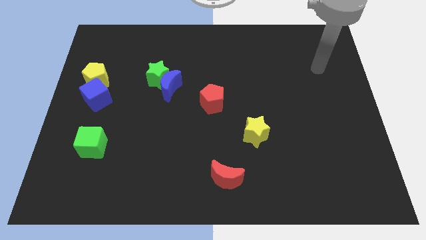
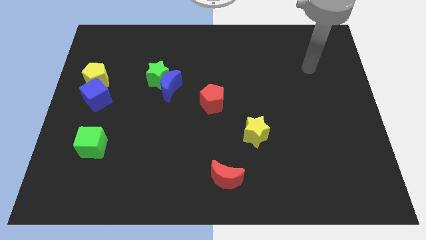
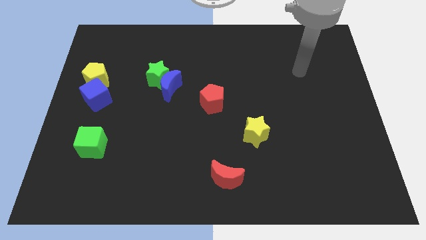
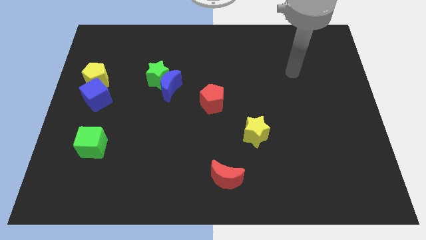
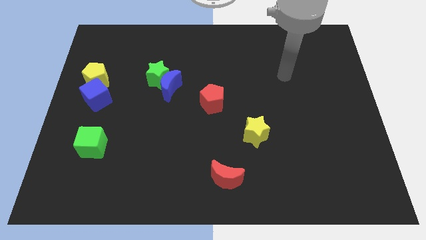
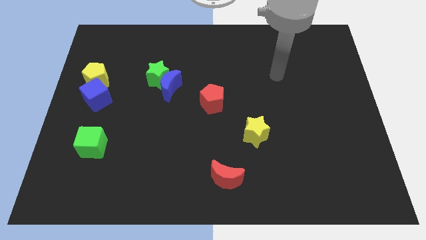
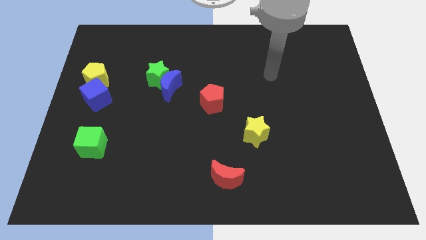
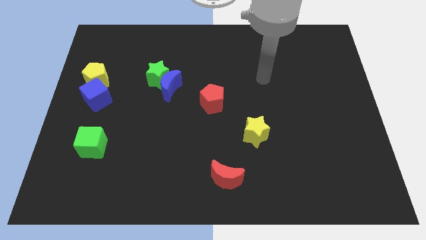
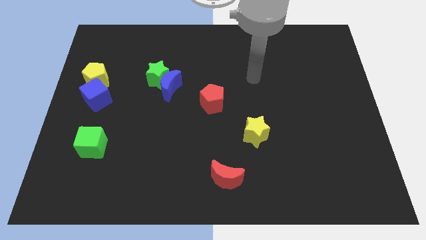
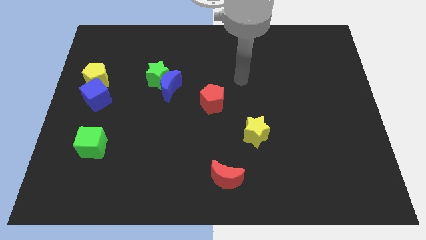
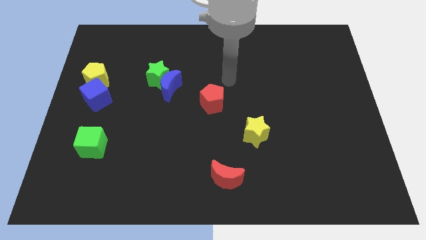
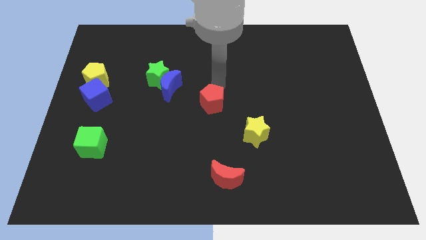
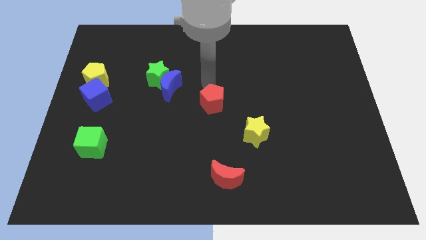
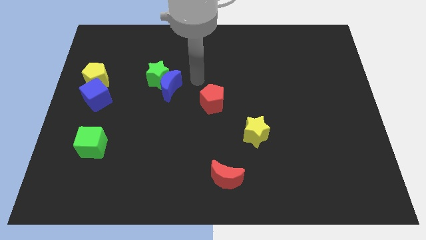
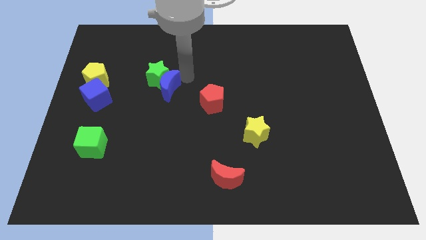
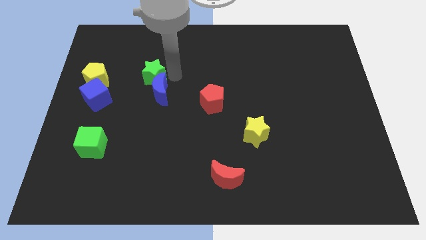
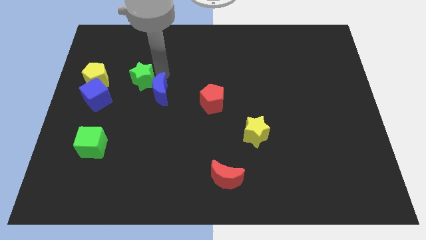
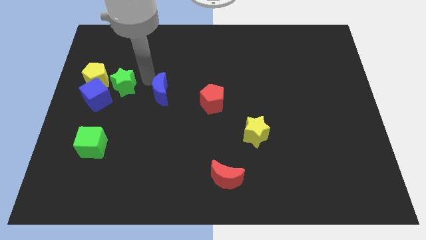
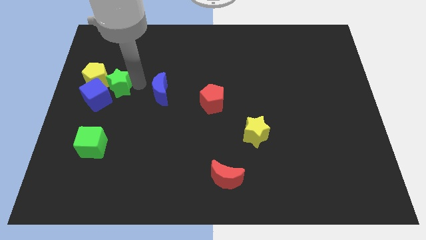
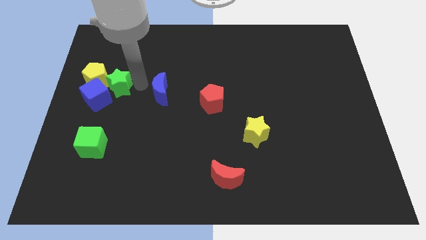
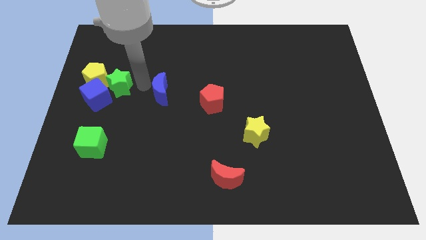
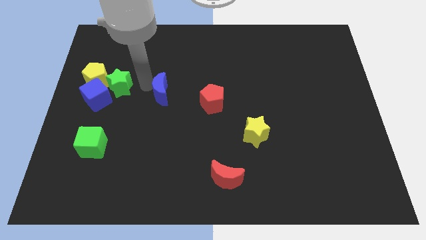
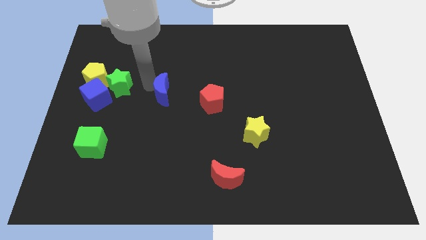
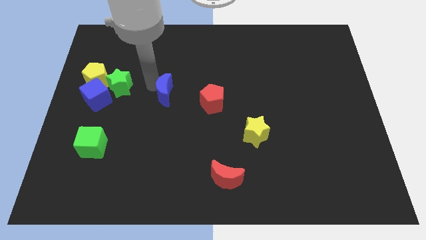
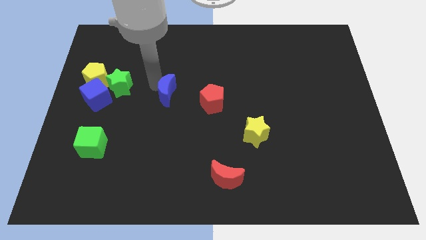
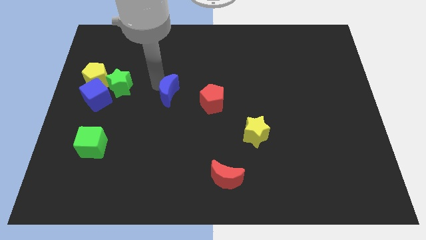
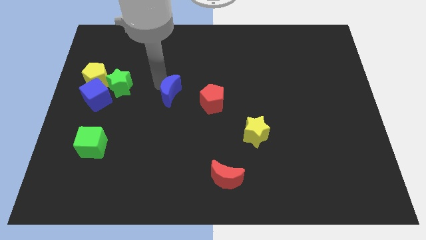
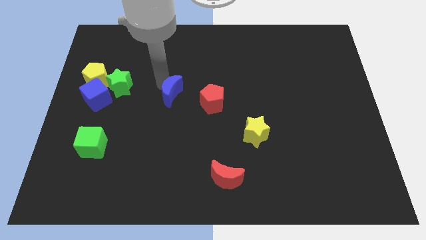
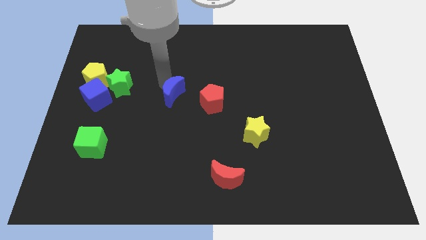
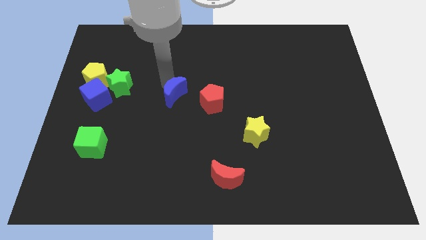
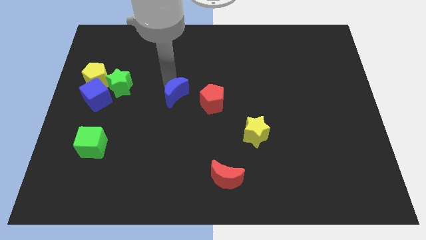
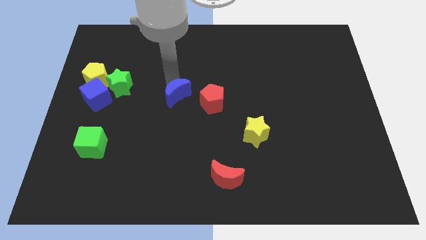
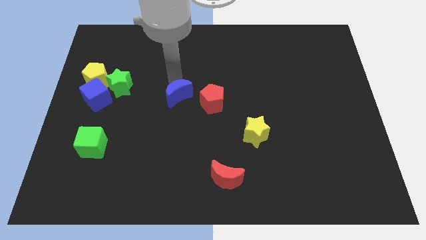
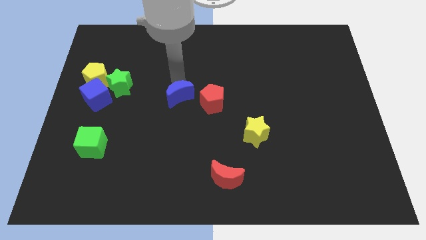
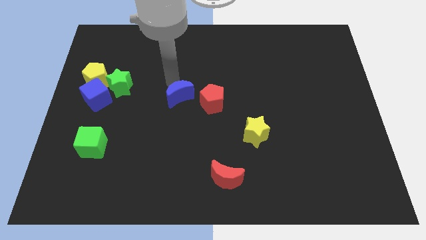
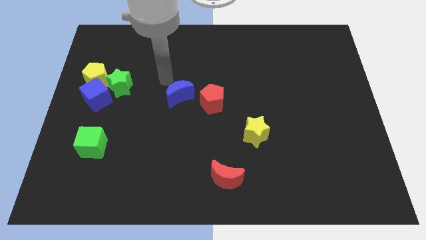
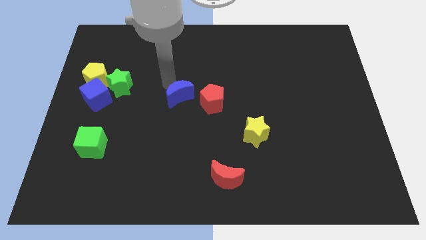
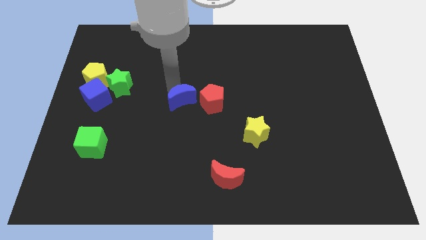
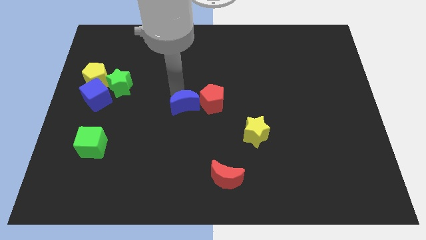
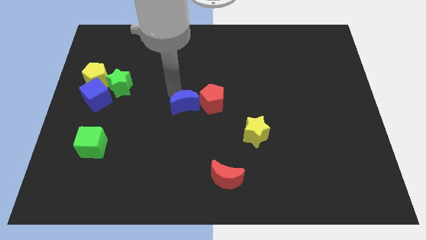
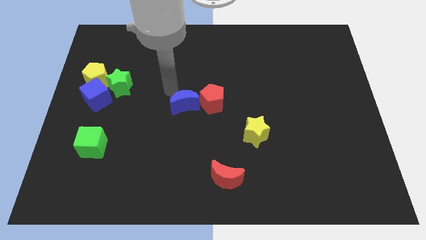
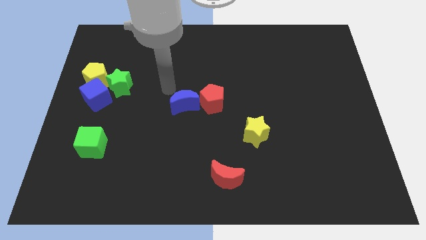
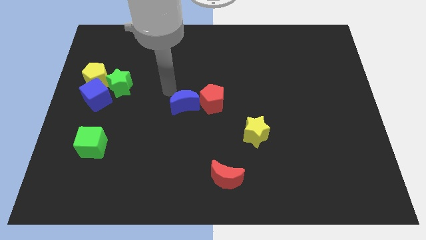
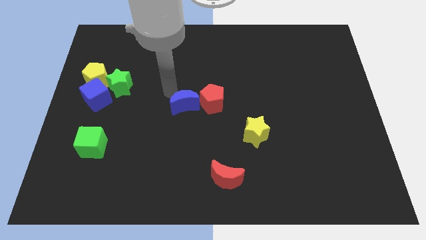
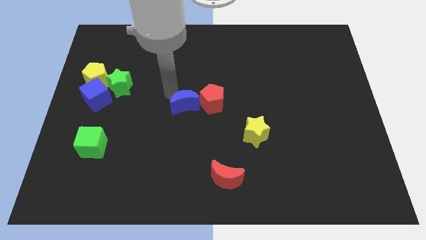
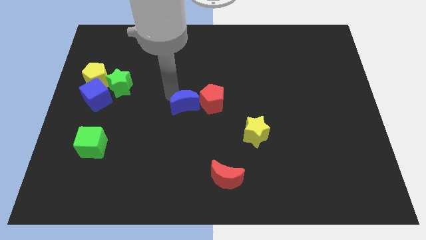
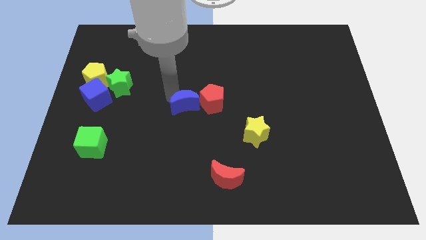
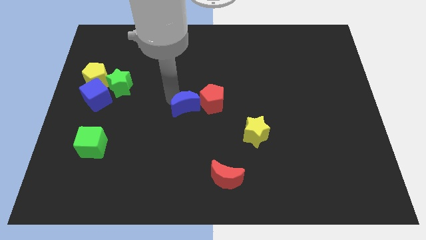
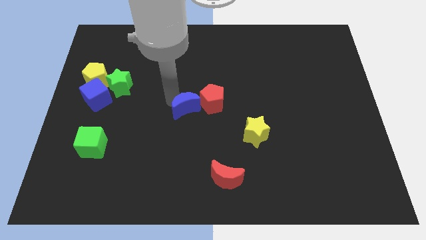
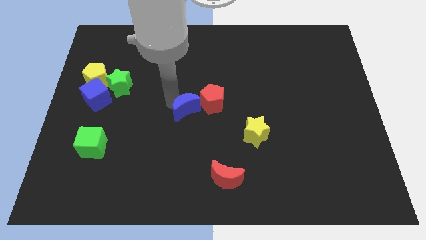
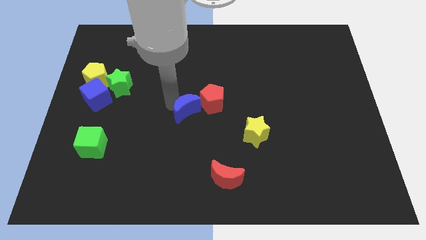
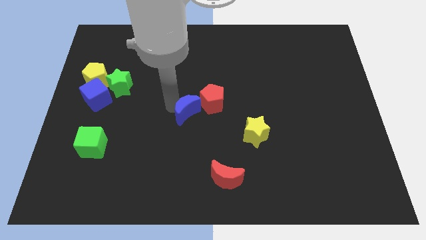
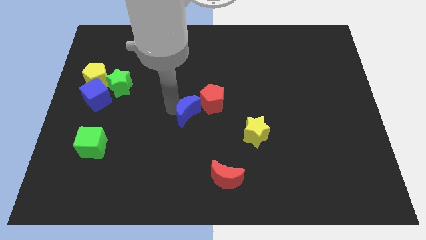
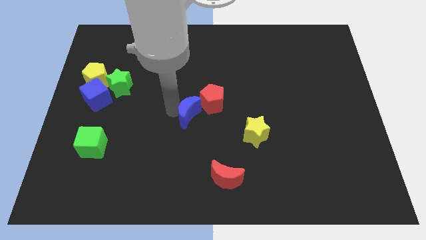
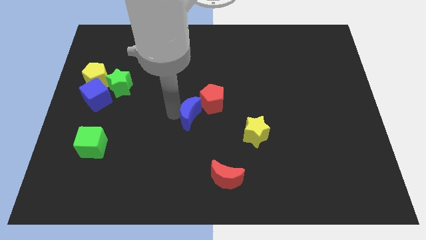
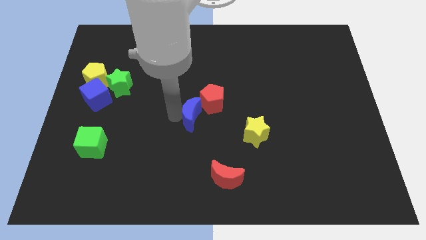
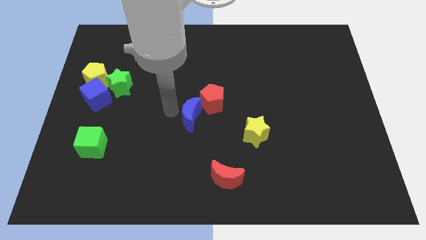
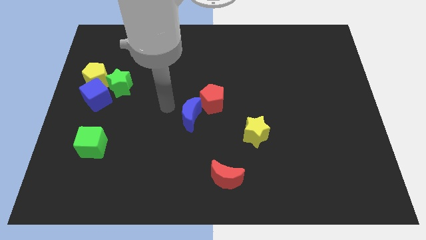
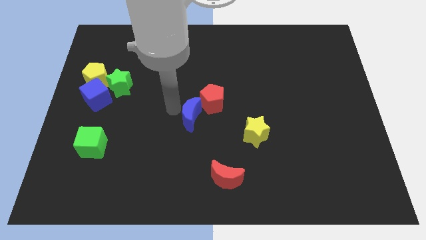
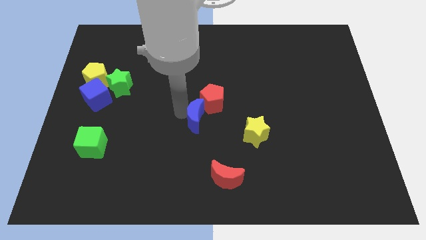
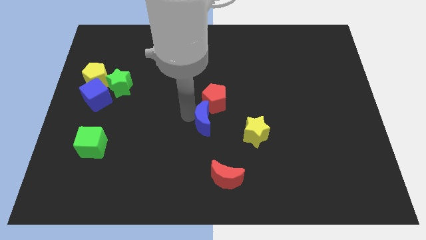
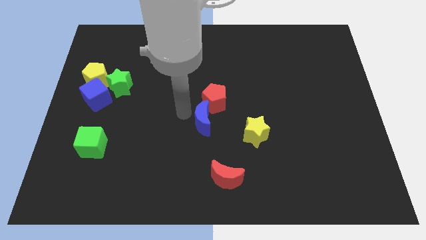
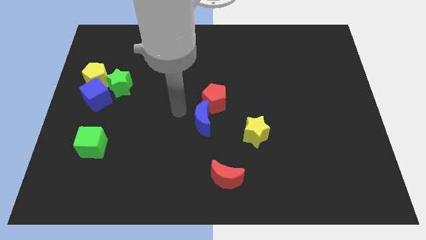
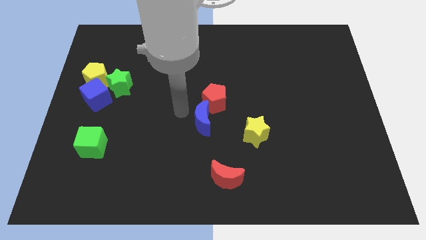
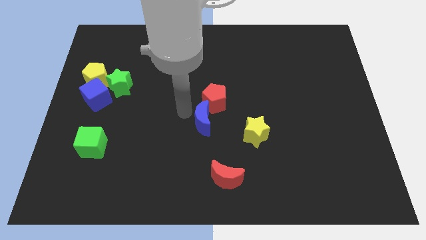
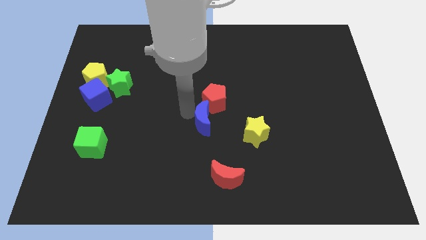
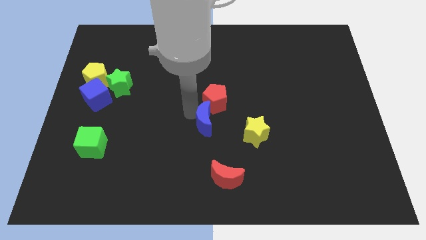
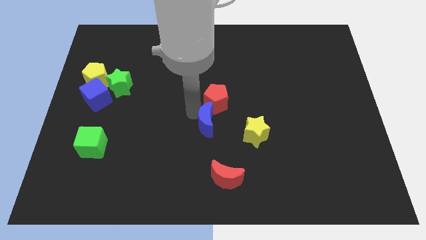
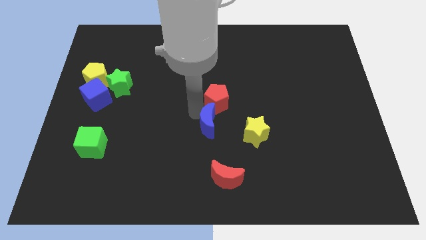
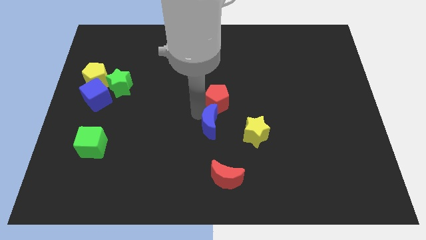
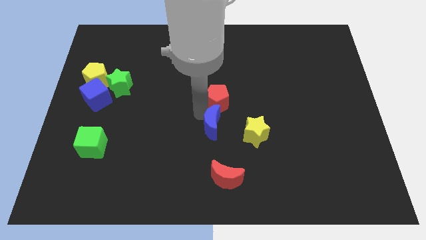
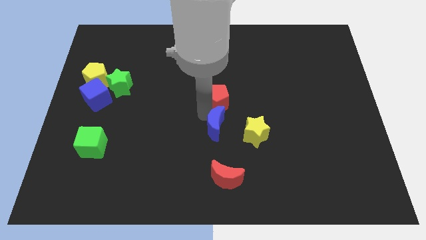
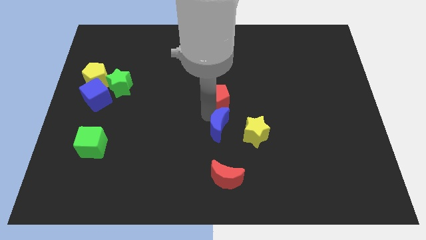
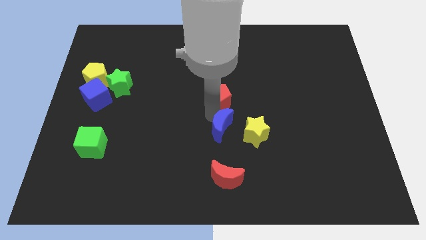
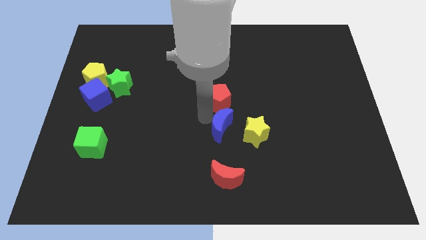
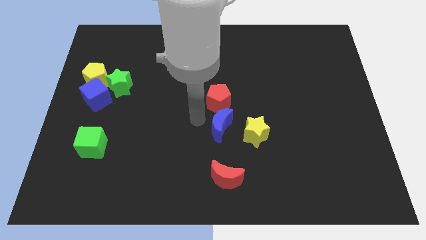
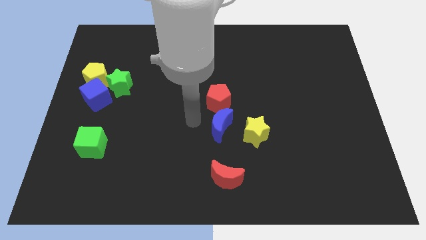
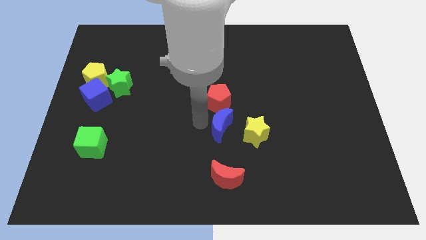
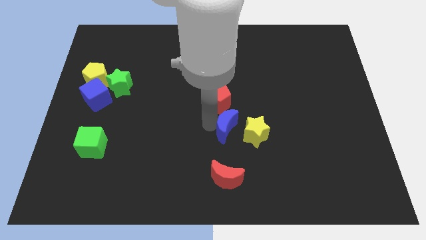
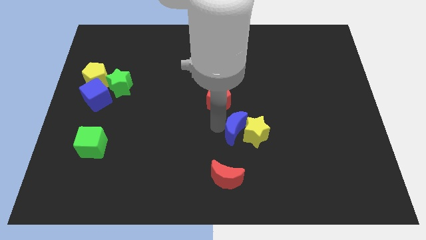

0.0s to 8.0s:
put the blue moon close to the yellow star
